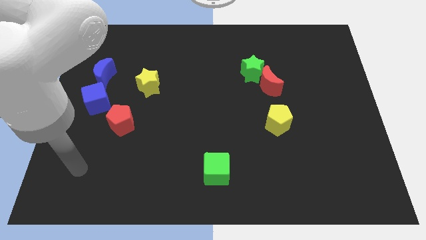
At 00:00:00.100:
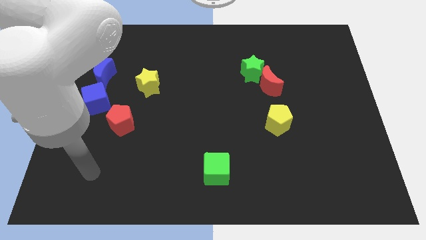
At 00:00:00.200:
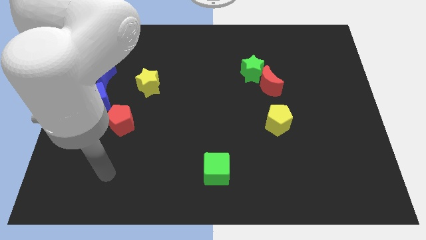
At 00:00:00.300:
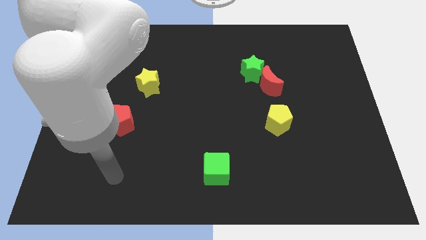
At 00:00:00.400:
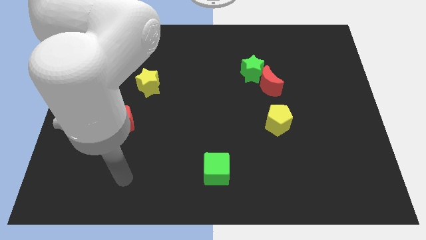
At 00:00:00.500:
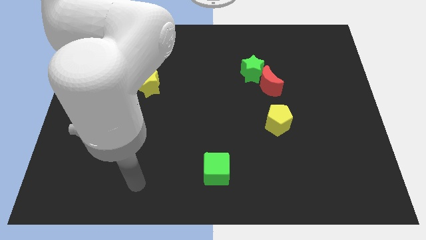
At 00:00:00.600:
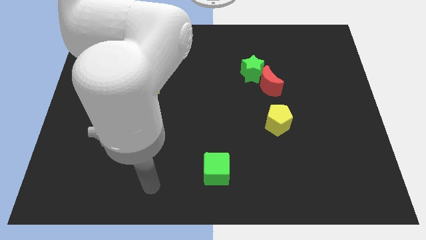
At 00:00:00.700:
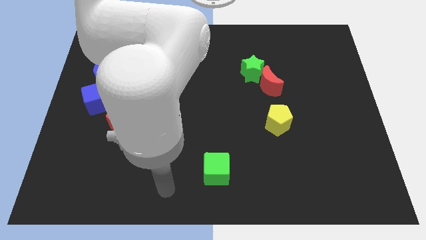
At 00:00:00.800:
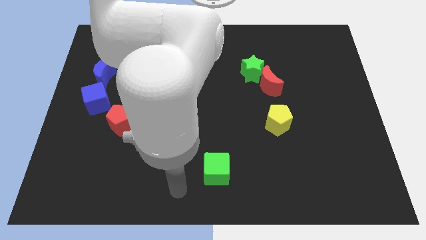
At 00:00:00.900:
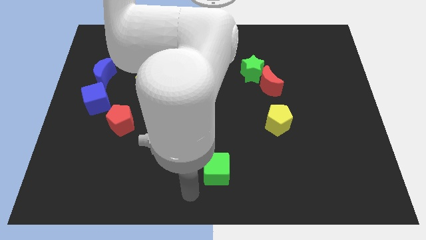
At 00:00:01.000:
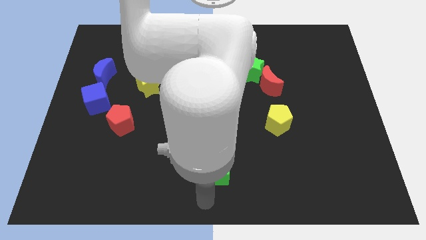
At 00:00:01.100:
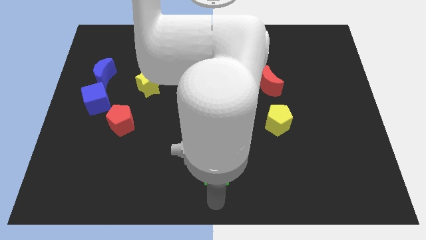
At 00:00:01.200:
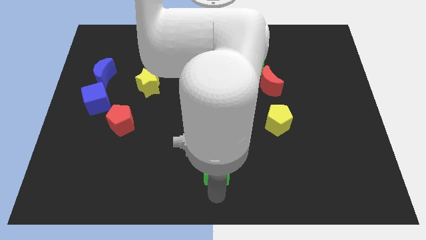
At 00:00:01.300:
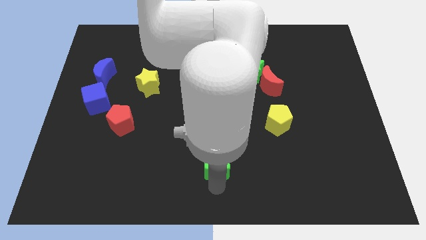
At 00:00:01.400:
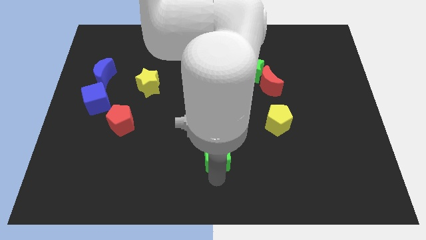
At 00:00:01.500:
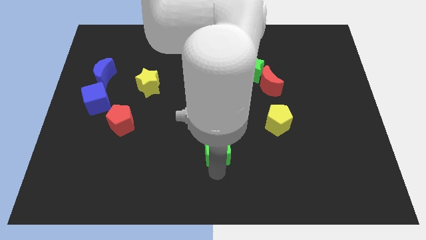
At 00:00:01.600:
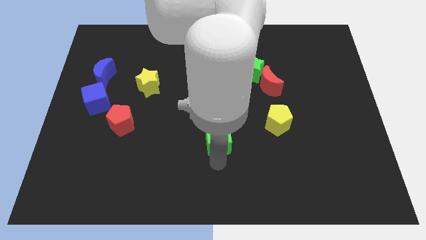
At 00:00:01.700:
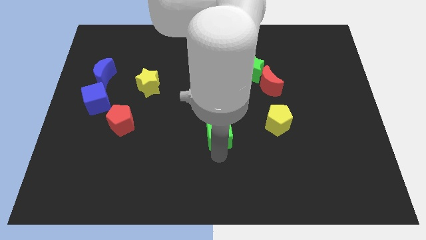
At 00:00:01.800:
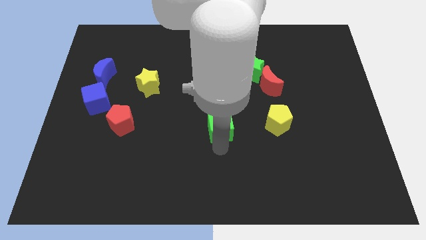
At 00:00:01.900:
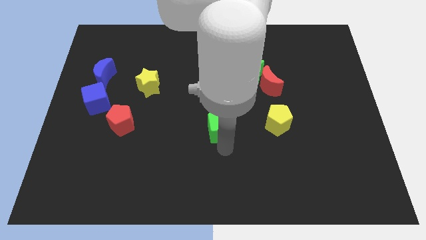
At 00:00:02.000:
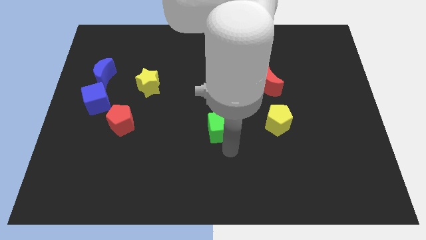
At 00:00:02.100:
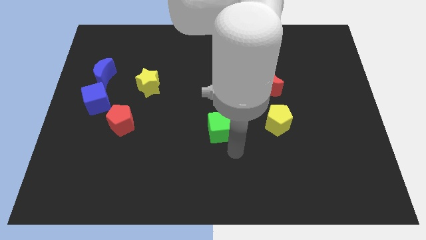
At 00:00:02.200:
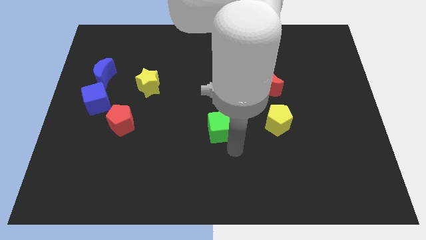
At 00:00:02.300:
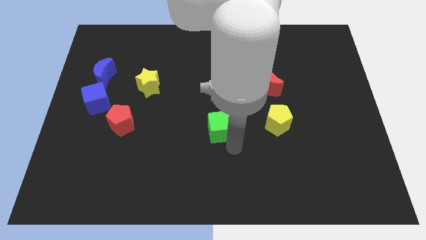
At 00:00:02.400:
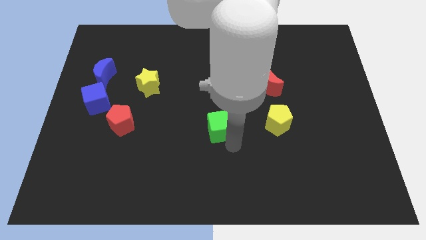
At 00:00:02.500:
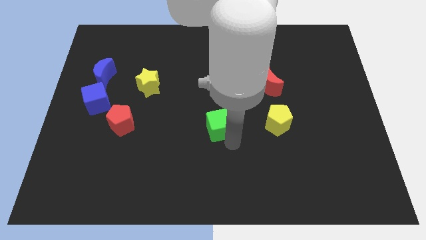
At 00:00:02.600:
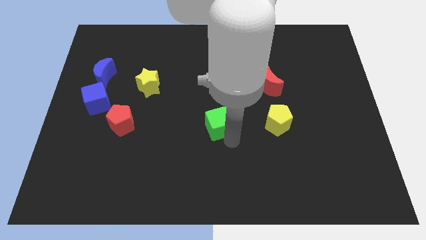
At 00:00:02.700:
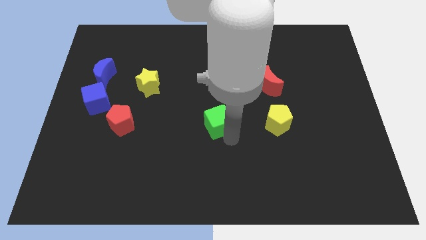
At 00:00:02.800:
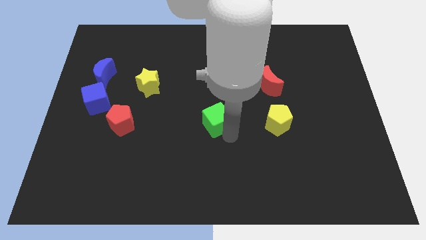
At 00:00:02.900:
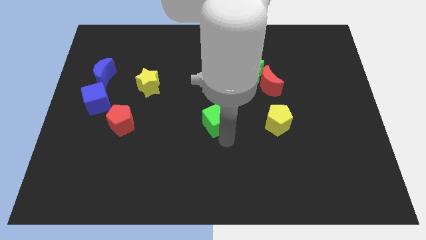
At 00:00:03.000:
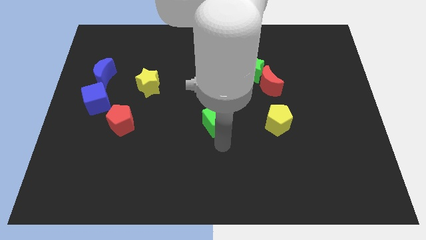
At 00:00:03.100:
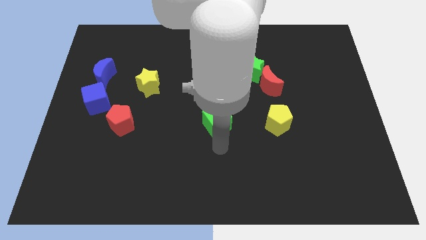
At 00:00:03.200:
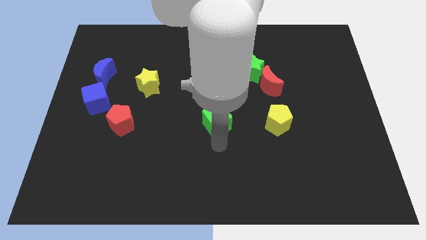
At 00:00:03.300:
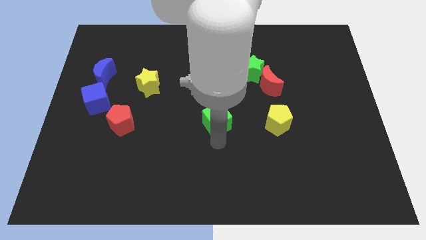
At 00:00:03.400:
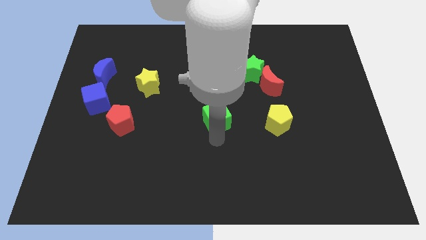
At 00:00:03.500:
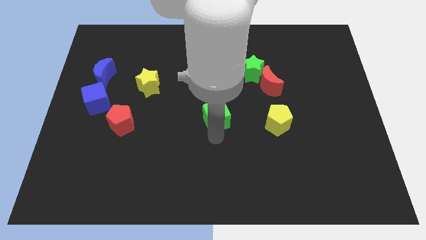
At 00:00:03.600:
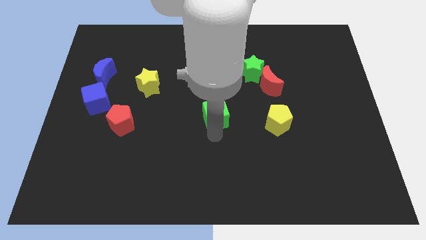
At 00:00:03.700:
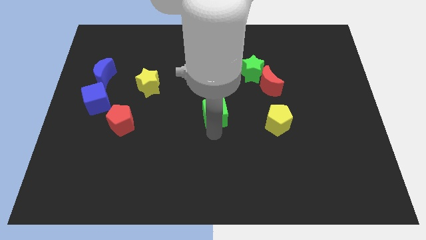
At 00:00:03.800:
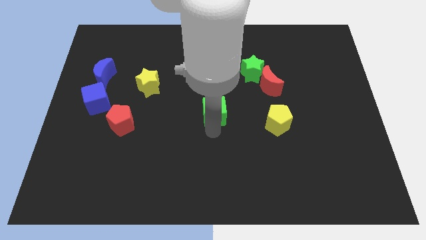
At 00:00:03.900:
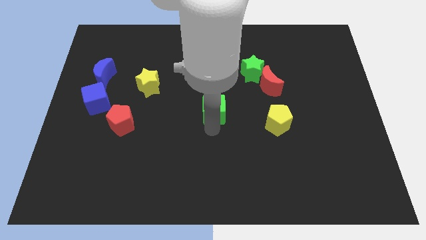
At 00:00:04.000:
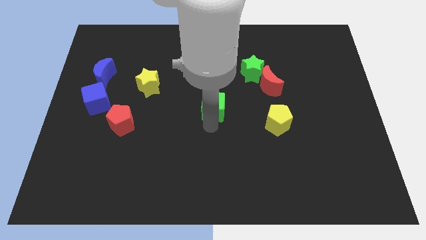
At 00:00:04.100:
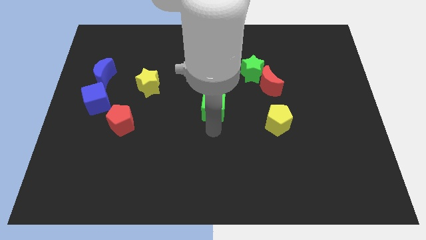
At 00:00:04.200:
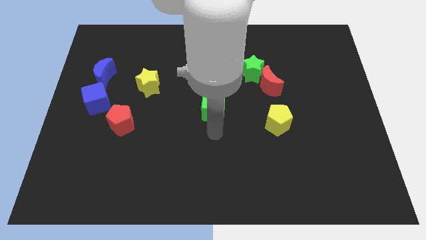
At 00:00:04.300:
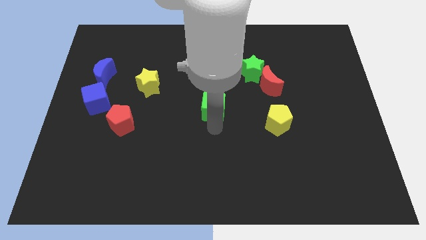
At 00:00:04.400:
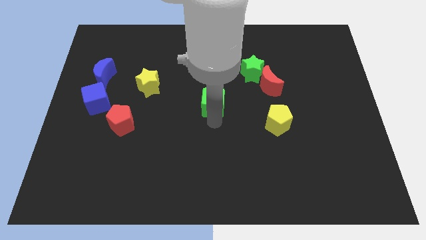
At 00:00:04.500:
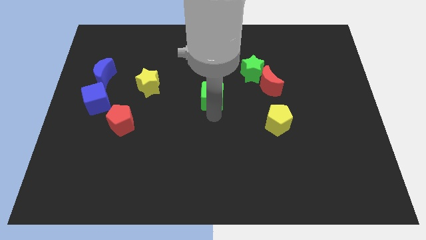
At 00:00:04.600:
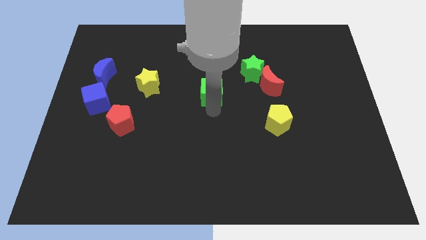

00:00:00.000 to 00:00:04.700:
push the green cube upwards

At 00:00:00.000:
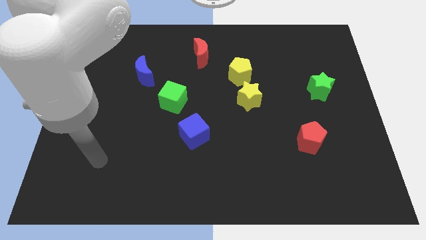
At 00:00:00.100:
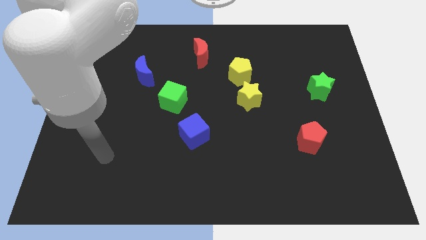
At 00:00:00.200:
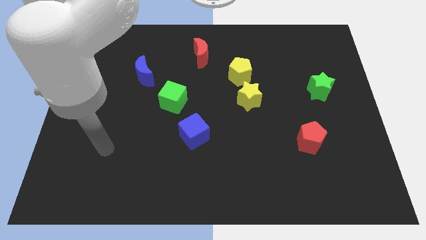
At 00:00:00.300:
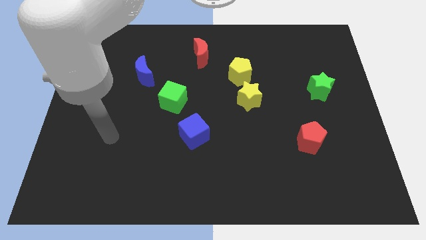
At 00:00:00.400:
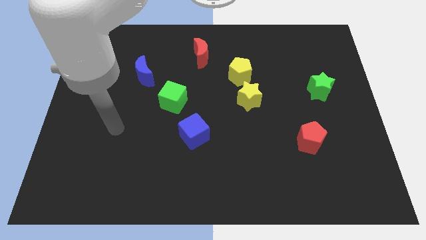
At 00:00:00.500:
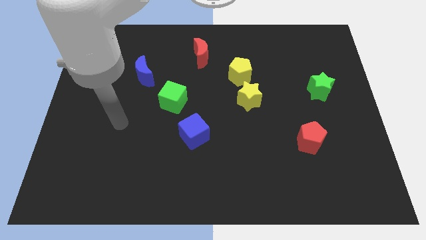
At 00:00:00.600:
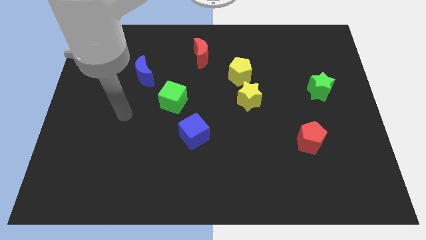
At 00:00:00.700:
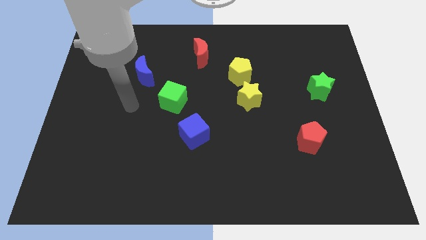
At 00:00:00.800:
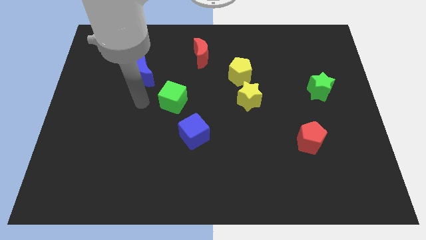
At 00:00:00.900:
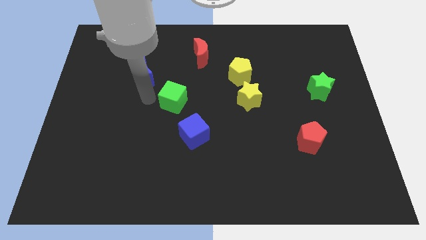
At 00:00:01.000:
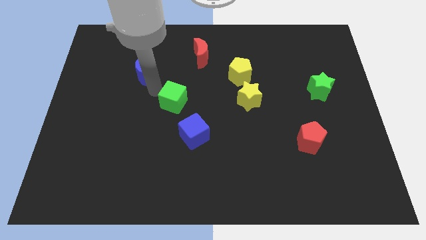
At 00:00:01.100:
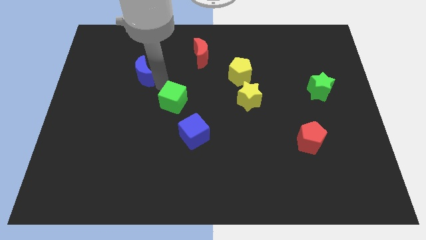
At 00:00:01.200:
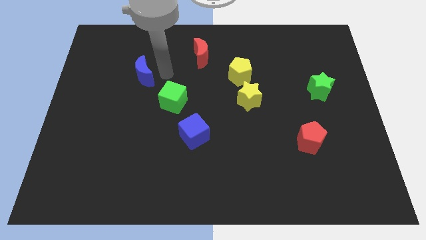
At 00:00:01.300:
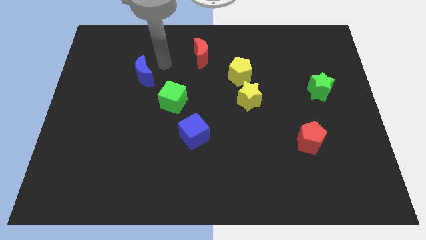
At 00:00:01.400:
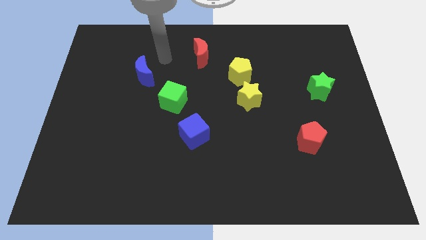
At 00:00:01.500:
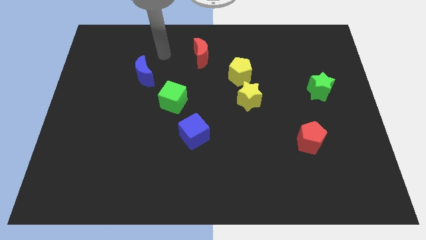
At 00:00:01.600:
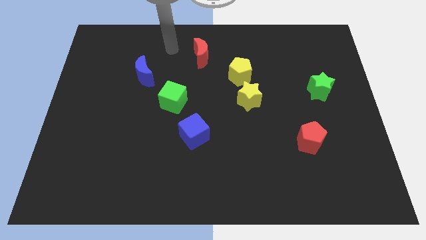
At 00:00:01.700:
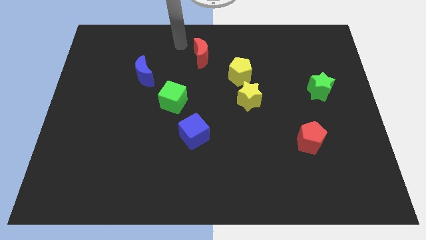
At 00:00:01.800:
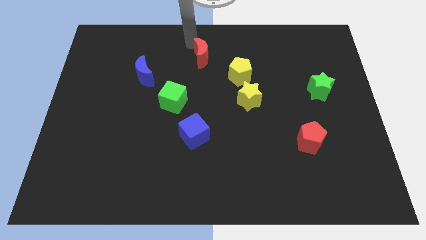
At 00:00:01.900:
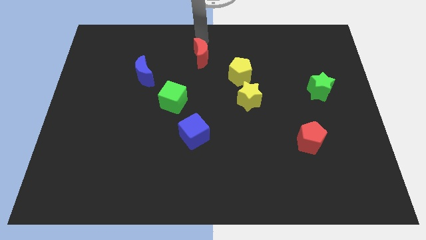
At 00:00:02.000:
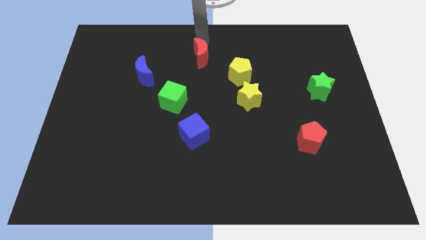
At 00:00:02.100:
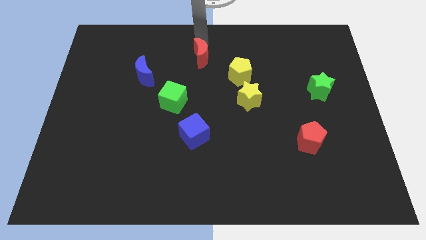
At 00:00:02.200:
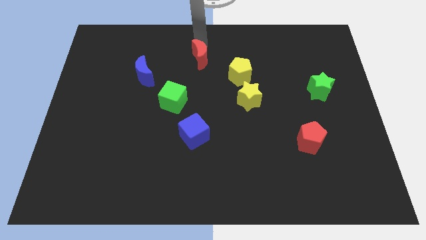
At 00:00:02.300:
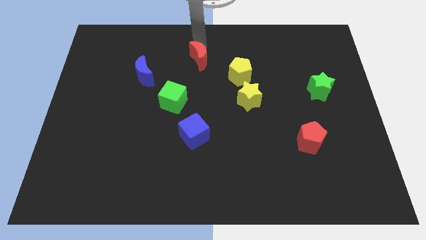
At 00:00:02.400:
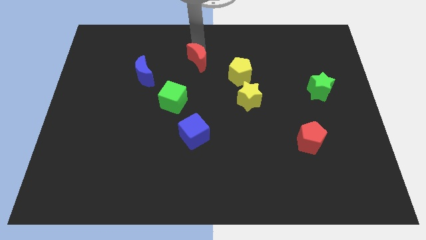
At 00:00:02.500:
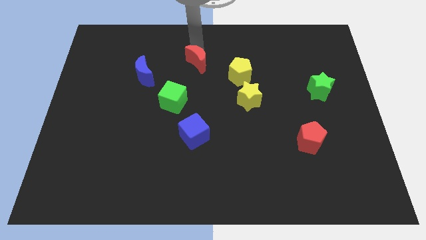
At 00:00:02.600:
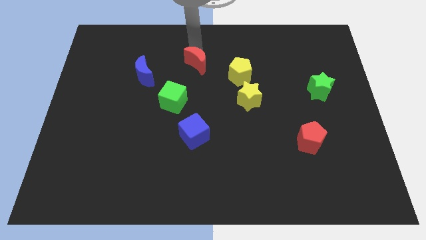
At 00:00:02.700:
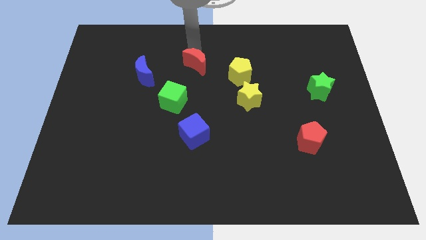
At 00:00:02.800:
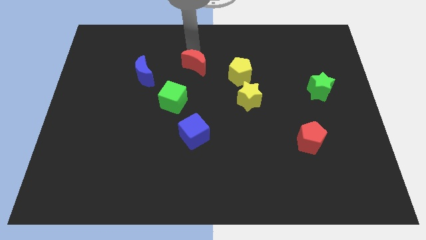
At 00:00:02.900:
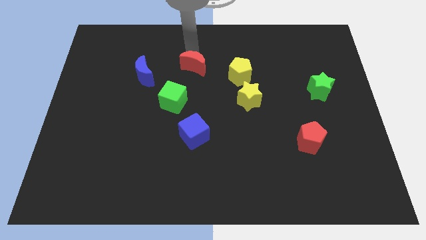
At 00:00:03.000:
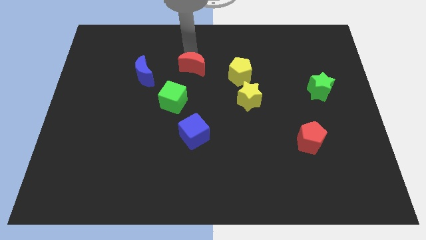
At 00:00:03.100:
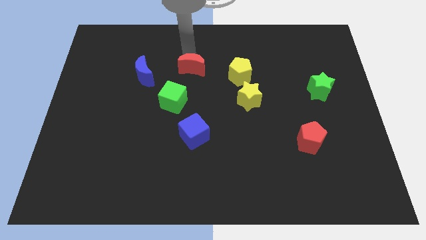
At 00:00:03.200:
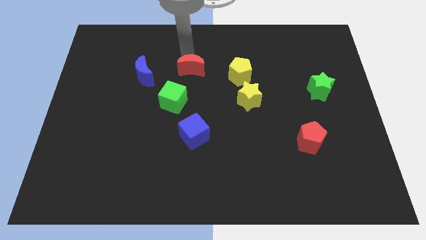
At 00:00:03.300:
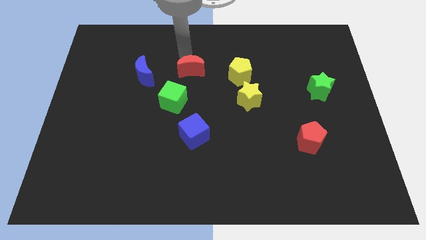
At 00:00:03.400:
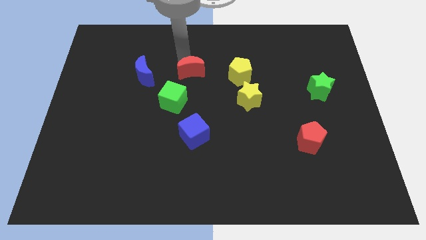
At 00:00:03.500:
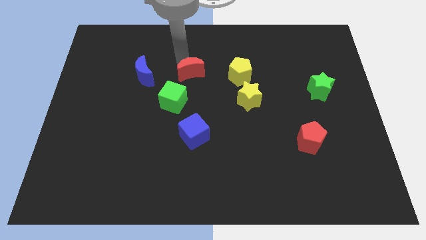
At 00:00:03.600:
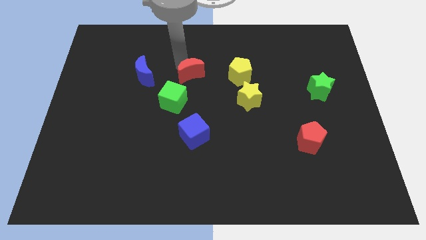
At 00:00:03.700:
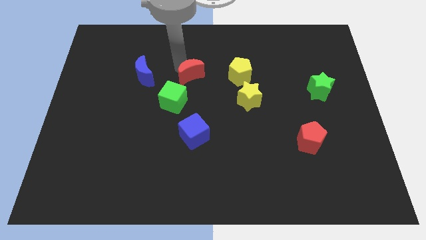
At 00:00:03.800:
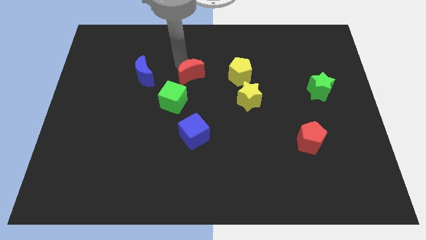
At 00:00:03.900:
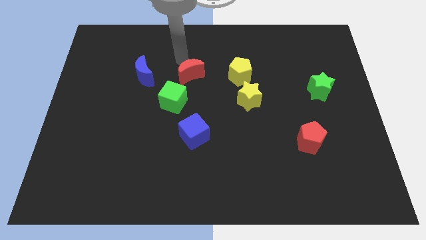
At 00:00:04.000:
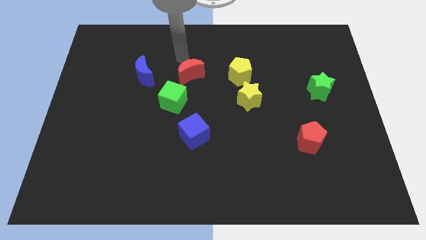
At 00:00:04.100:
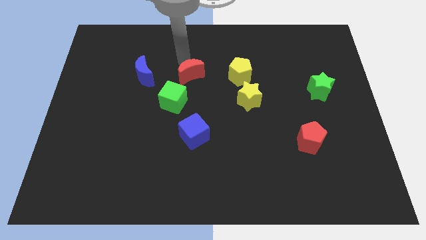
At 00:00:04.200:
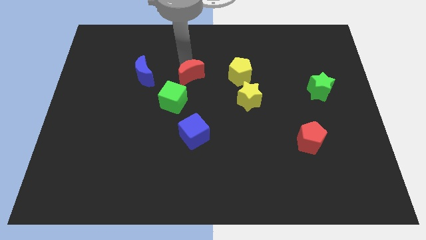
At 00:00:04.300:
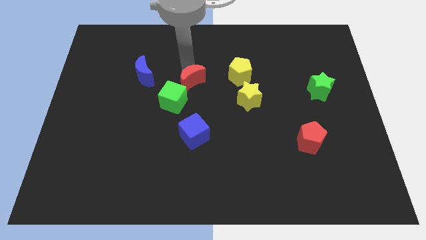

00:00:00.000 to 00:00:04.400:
slide the red moon a little bit downwards
